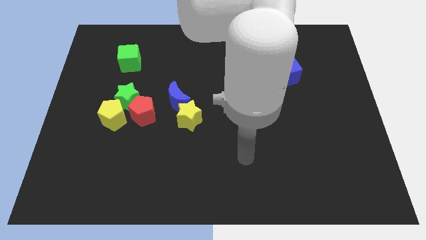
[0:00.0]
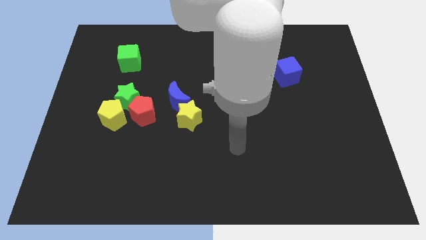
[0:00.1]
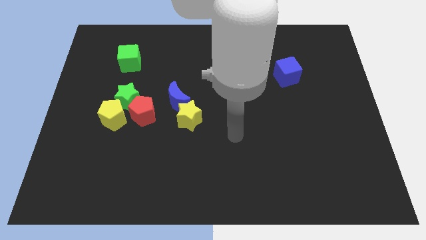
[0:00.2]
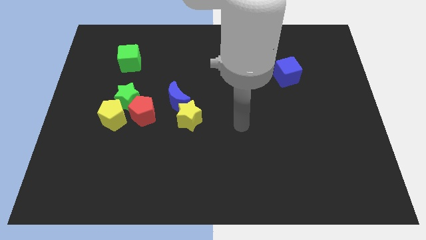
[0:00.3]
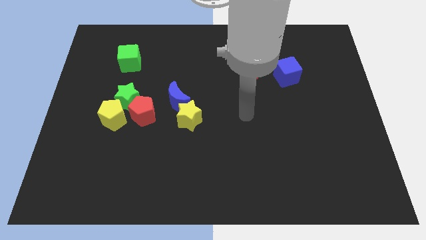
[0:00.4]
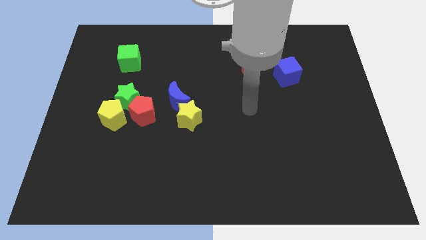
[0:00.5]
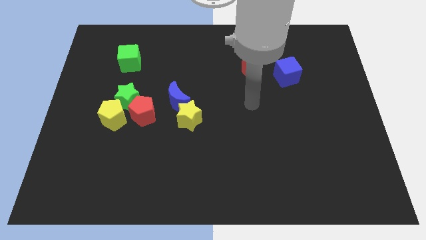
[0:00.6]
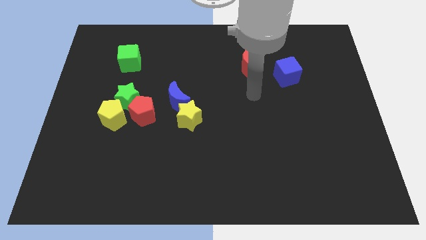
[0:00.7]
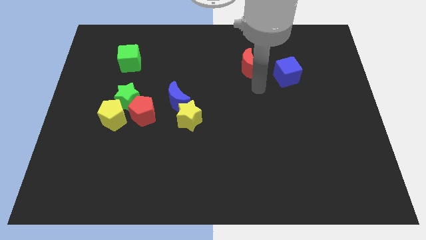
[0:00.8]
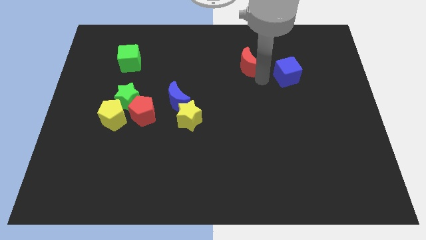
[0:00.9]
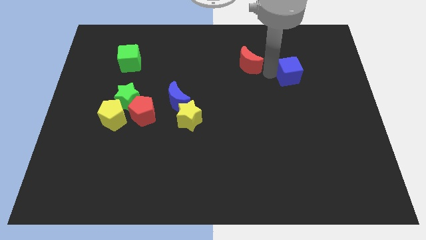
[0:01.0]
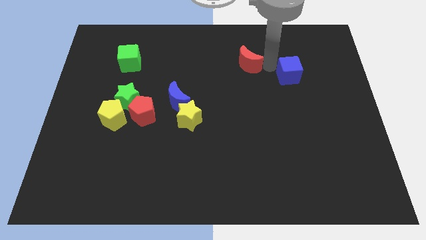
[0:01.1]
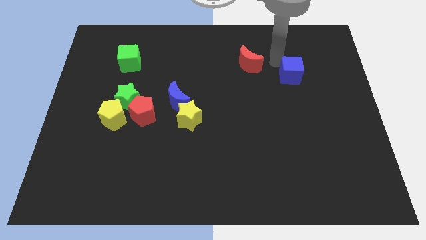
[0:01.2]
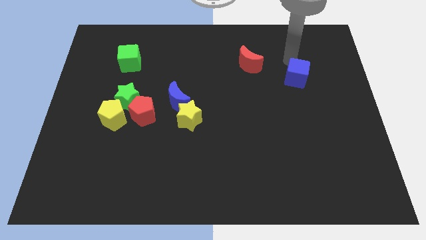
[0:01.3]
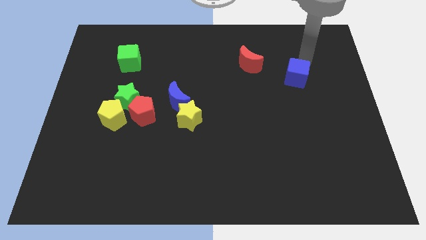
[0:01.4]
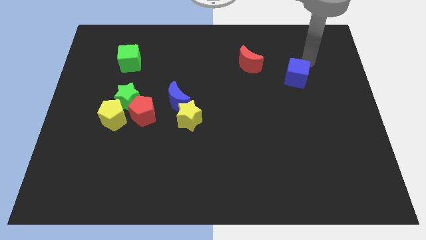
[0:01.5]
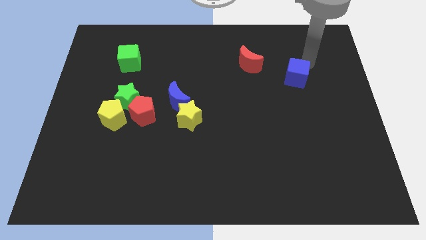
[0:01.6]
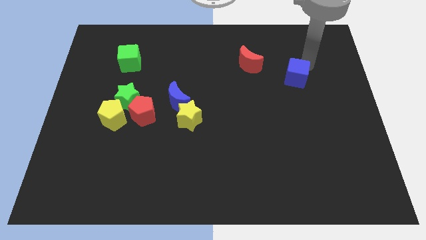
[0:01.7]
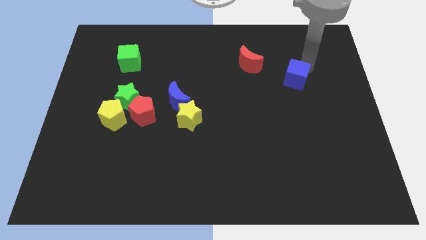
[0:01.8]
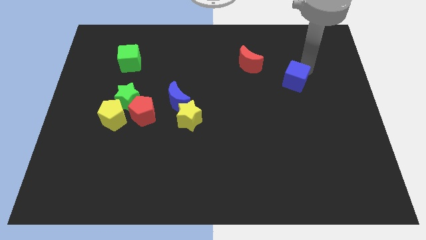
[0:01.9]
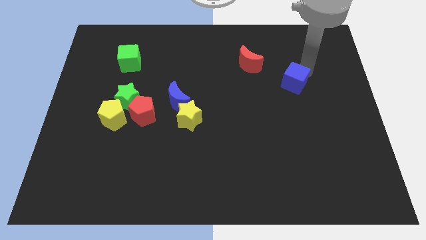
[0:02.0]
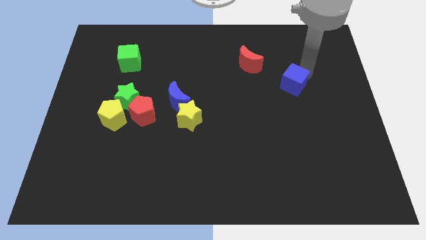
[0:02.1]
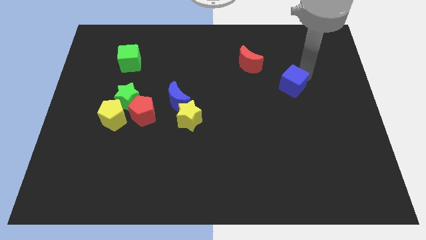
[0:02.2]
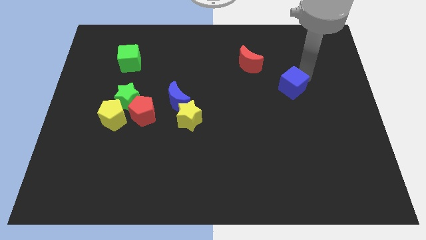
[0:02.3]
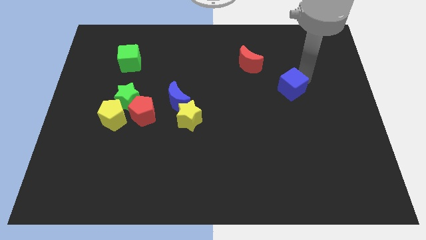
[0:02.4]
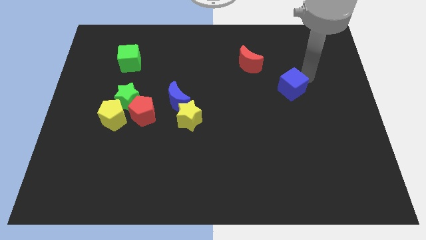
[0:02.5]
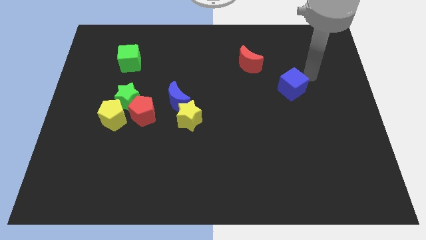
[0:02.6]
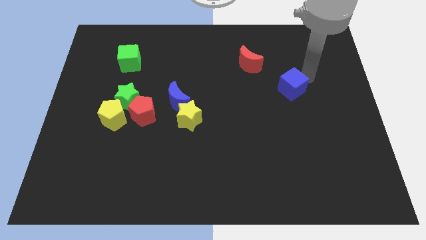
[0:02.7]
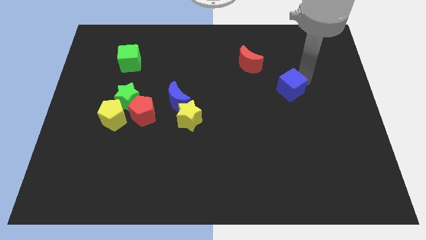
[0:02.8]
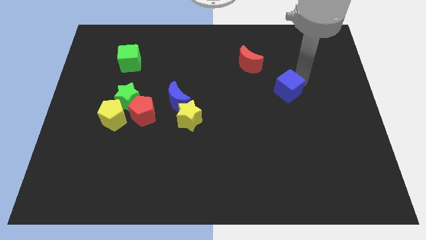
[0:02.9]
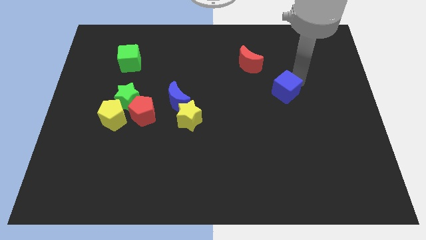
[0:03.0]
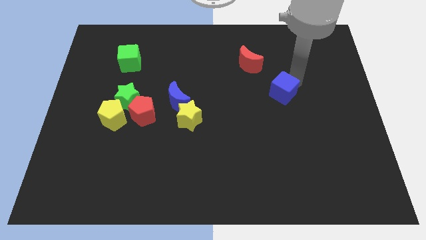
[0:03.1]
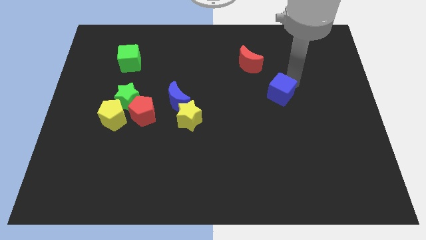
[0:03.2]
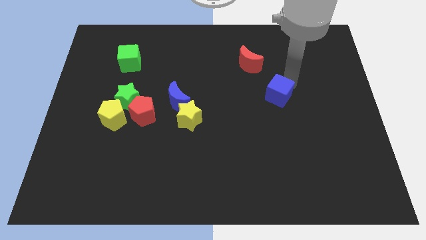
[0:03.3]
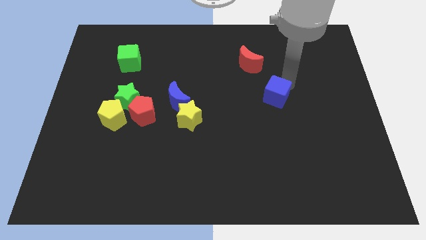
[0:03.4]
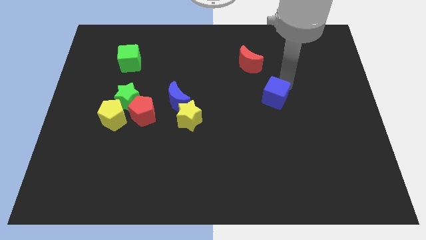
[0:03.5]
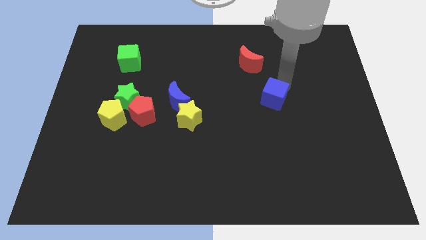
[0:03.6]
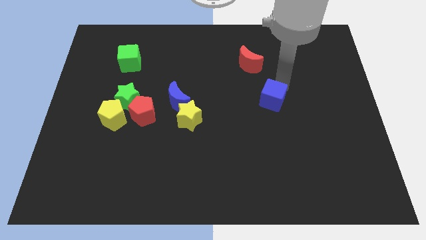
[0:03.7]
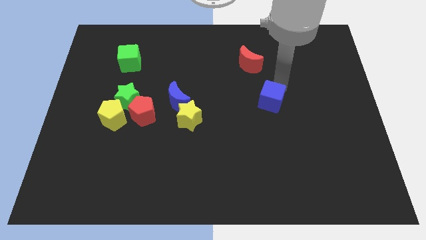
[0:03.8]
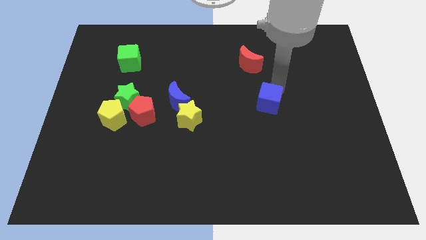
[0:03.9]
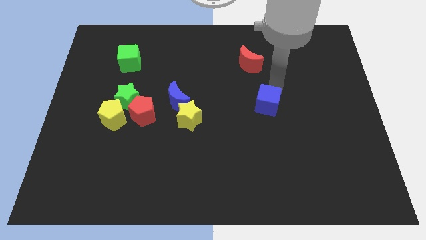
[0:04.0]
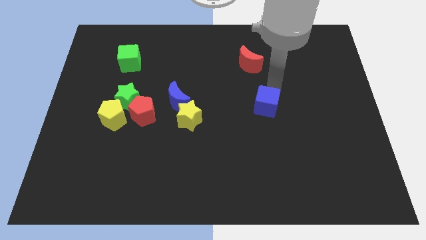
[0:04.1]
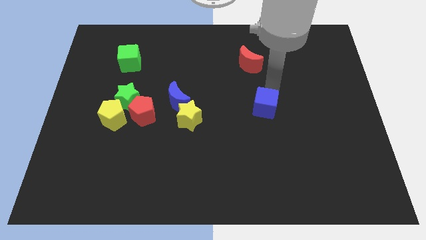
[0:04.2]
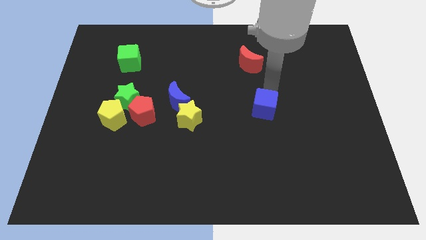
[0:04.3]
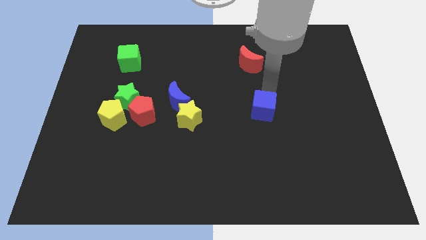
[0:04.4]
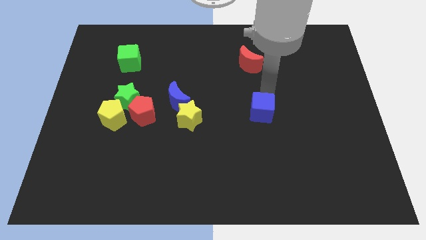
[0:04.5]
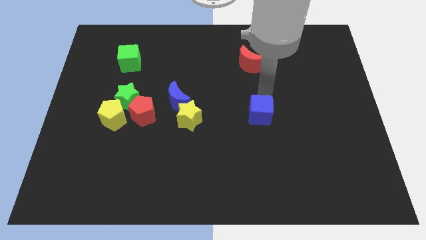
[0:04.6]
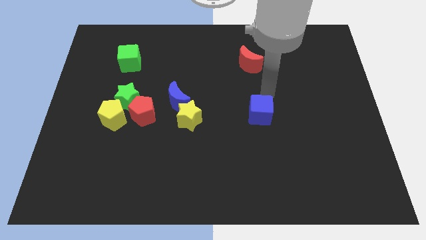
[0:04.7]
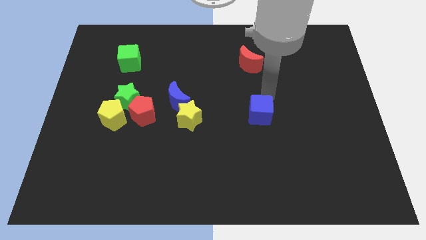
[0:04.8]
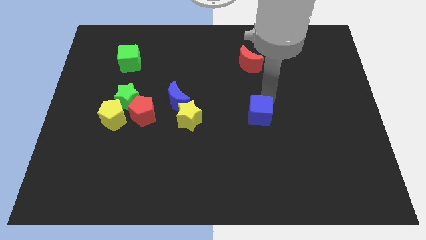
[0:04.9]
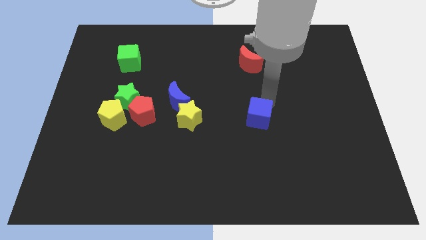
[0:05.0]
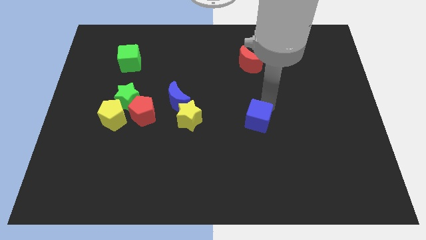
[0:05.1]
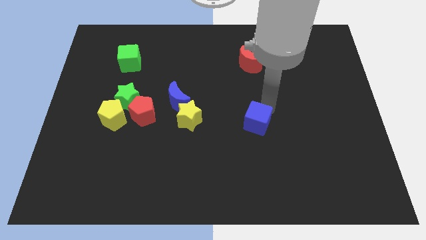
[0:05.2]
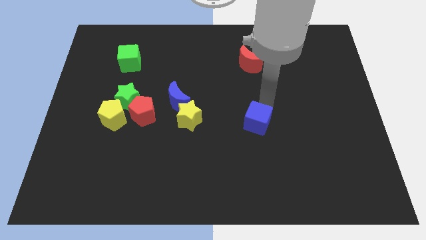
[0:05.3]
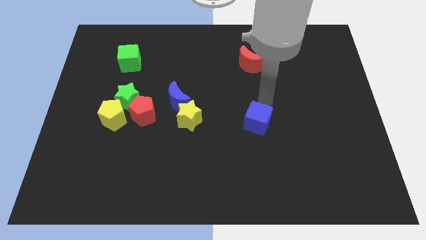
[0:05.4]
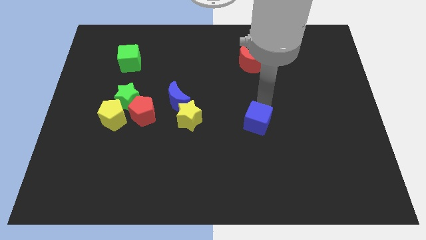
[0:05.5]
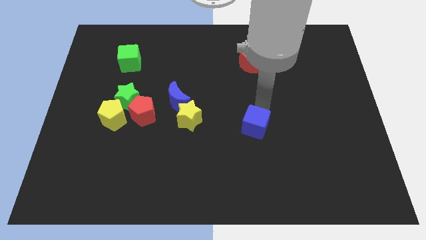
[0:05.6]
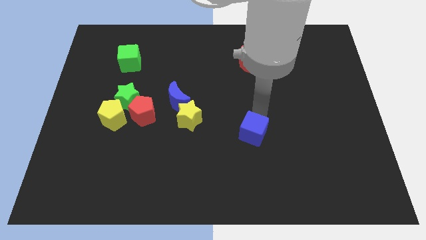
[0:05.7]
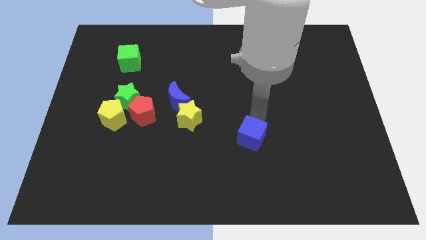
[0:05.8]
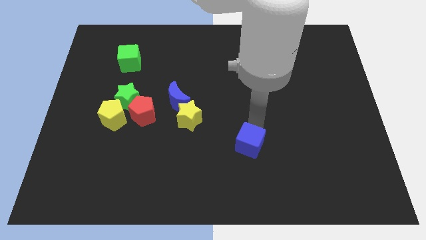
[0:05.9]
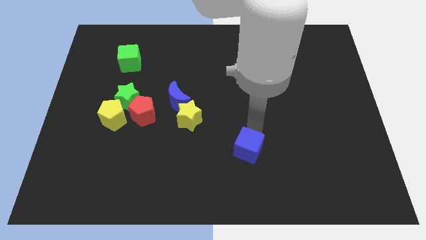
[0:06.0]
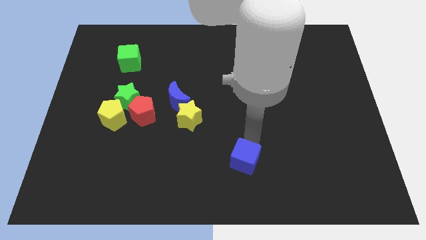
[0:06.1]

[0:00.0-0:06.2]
push the blue cube to the bottom side
